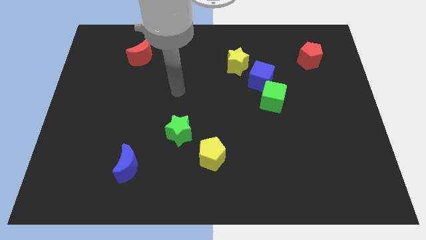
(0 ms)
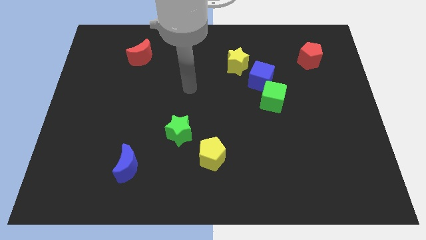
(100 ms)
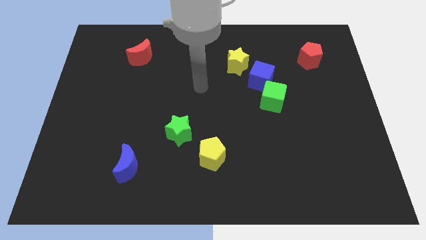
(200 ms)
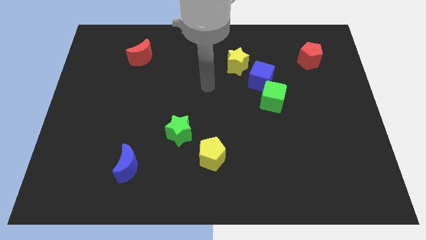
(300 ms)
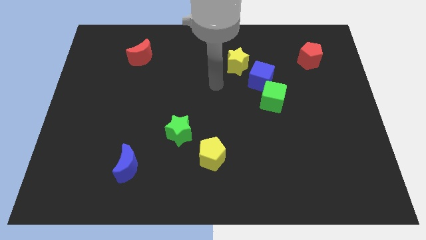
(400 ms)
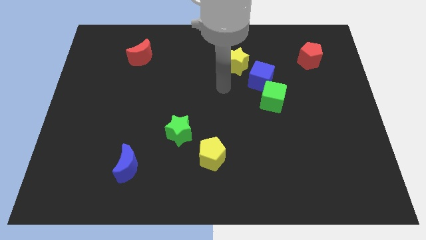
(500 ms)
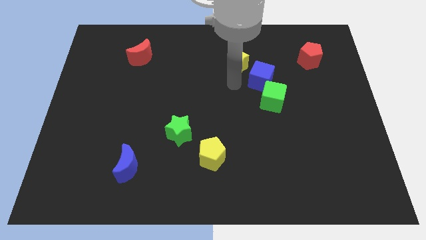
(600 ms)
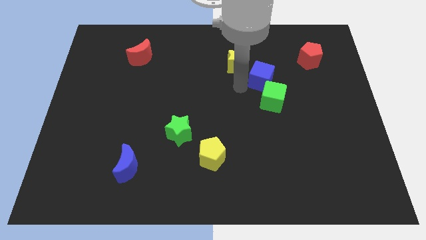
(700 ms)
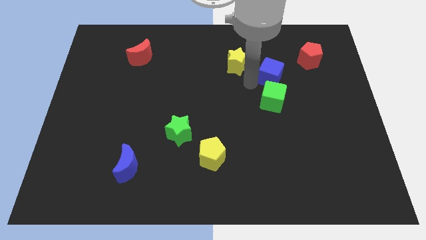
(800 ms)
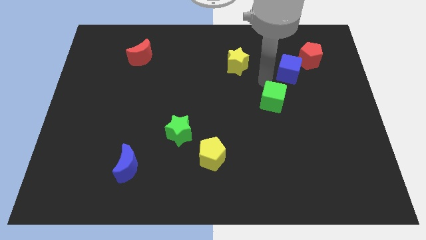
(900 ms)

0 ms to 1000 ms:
move the green cube away from the blue cube

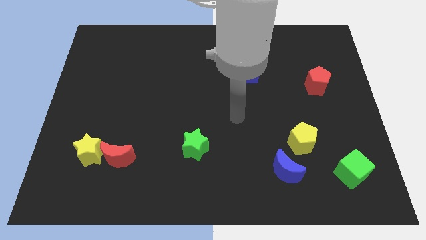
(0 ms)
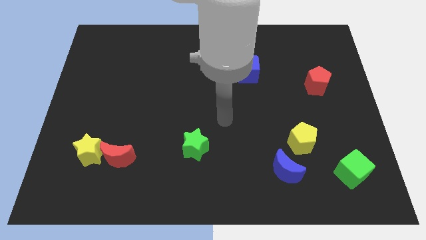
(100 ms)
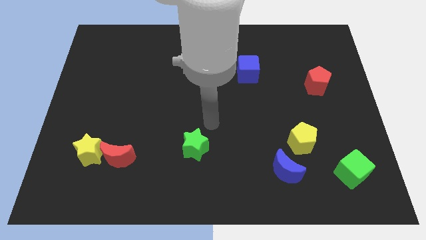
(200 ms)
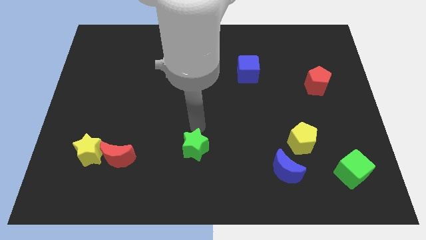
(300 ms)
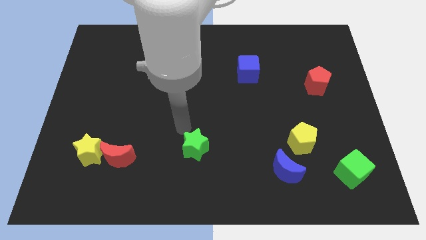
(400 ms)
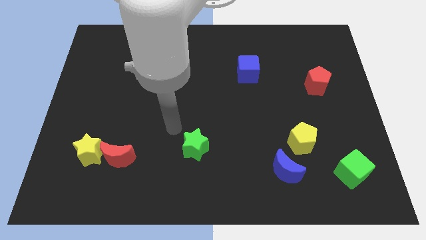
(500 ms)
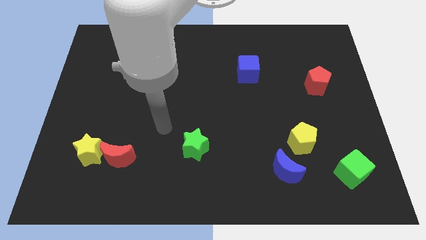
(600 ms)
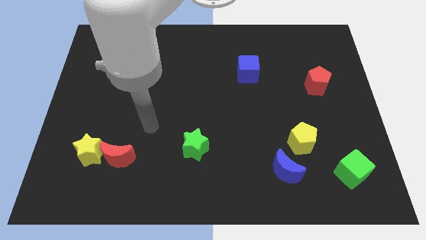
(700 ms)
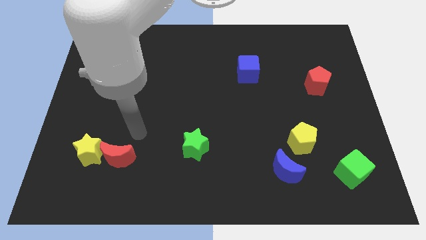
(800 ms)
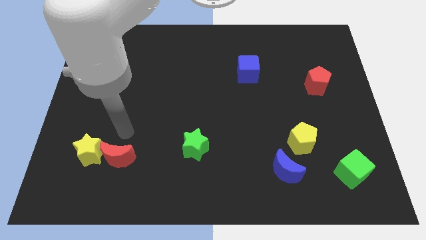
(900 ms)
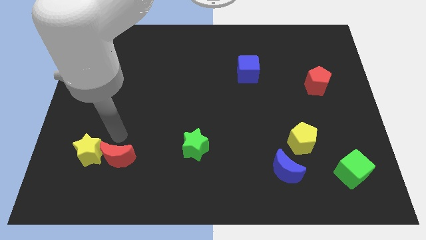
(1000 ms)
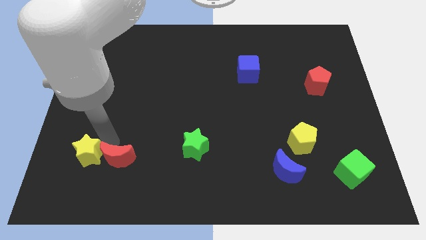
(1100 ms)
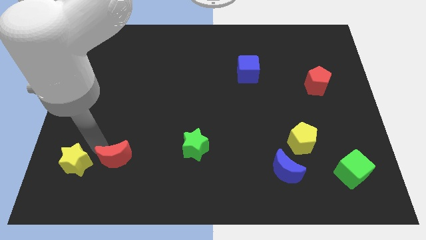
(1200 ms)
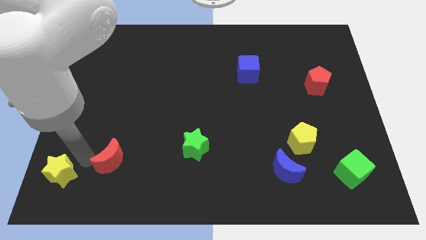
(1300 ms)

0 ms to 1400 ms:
move the red moon away from the yellow star

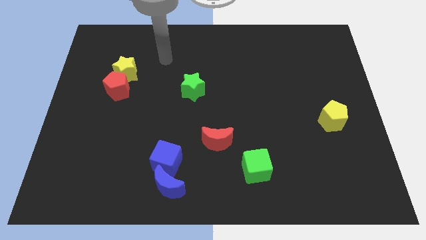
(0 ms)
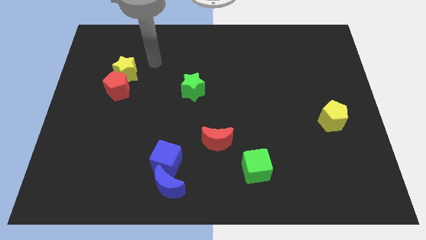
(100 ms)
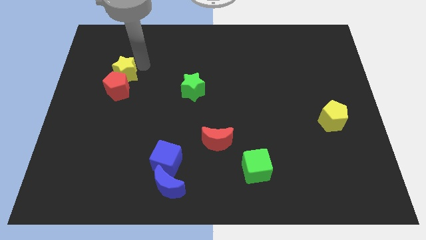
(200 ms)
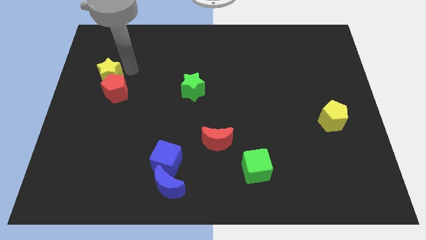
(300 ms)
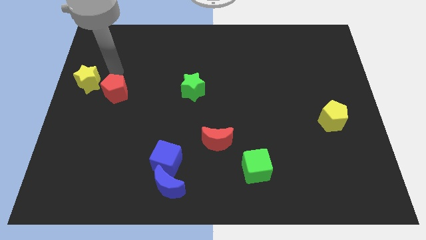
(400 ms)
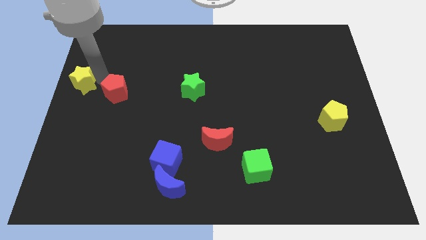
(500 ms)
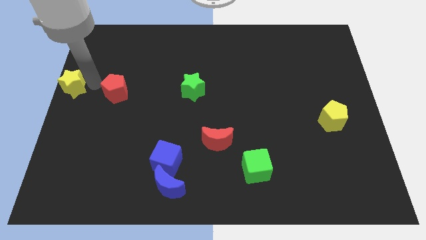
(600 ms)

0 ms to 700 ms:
separate the red pentagon from the yellow star

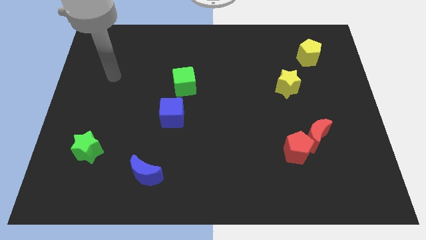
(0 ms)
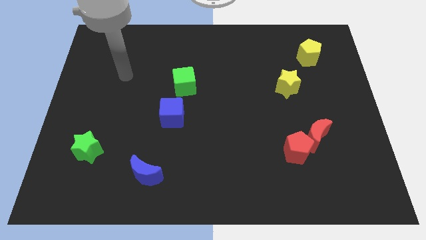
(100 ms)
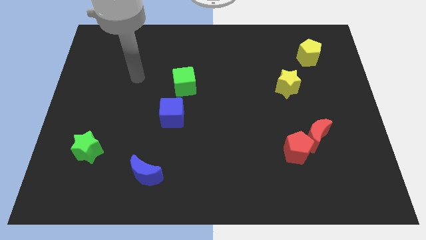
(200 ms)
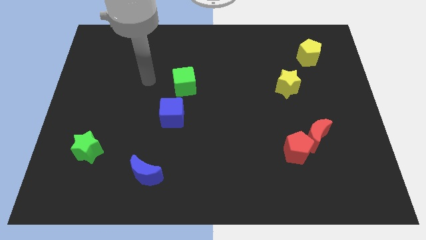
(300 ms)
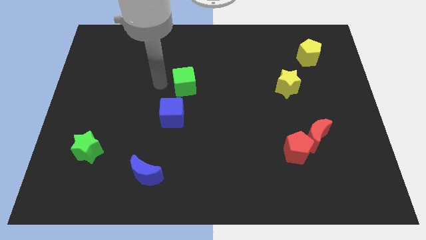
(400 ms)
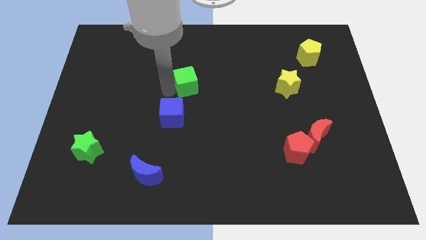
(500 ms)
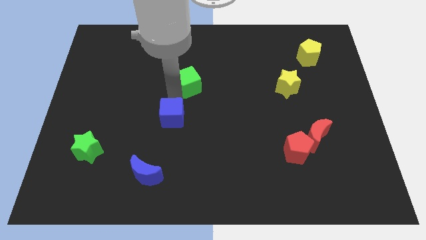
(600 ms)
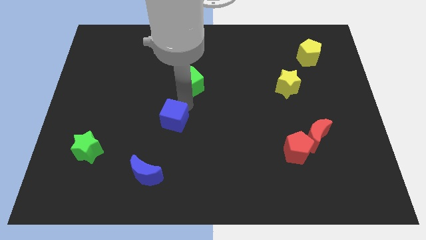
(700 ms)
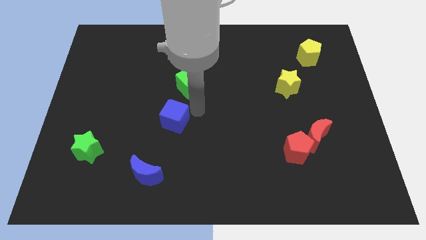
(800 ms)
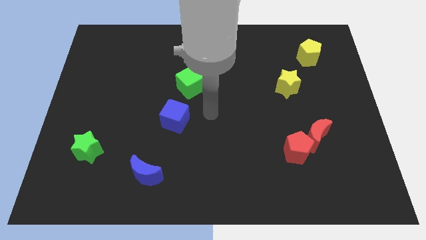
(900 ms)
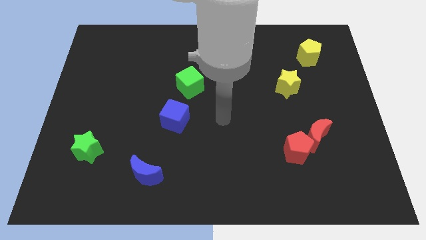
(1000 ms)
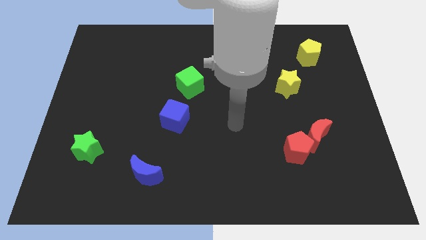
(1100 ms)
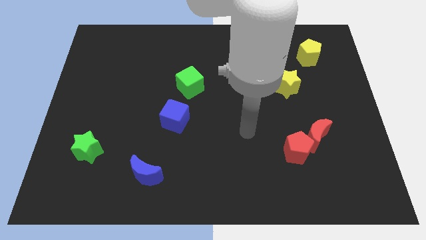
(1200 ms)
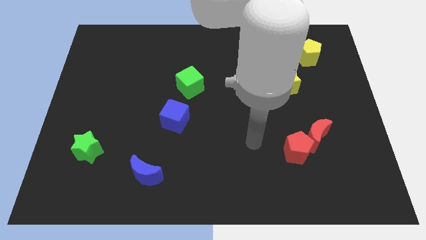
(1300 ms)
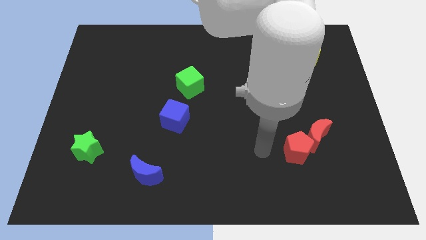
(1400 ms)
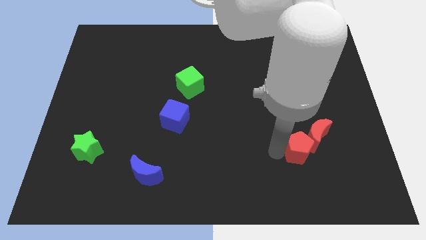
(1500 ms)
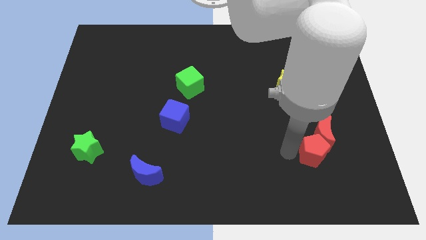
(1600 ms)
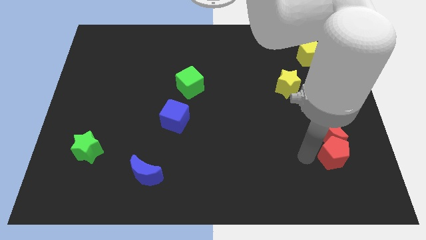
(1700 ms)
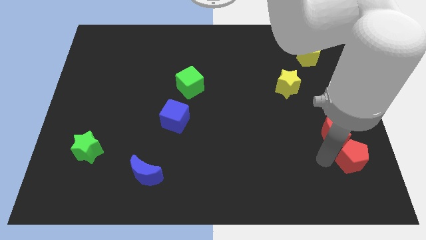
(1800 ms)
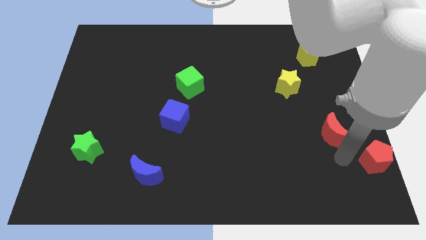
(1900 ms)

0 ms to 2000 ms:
pull the red moon apart from the red pentagon

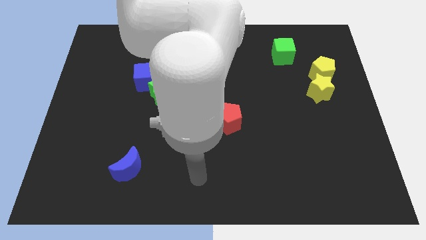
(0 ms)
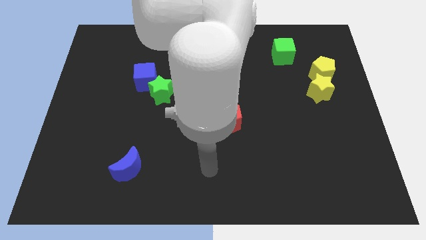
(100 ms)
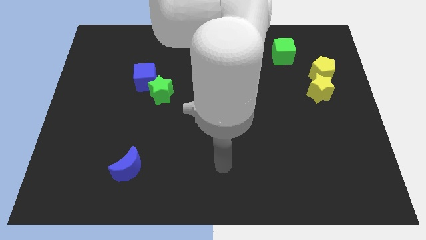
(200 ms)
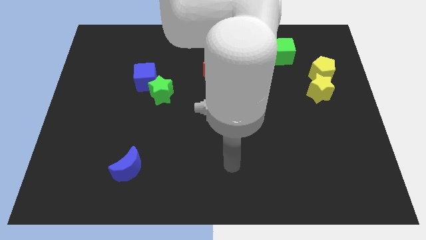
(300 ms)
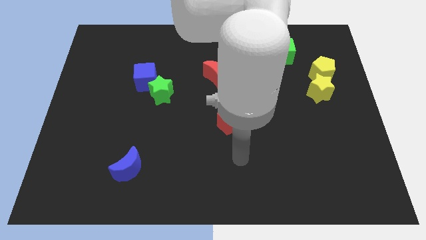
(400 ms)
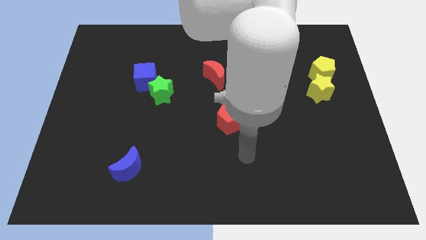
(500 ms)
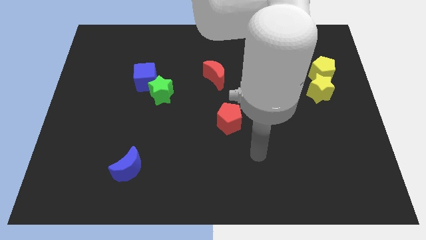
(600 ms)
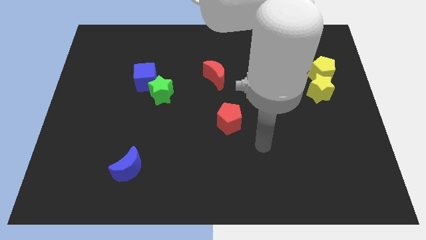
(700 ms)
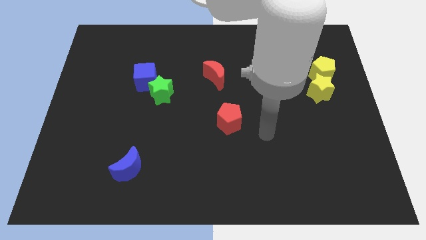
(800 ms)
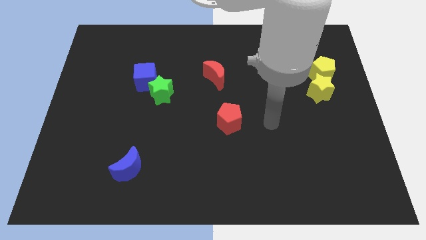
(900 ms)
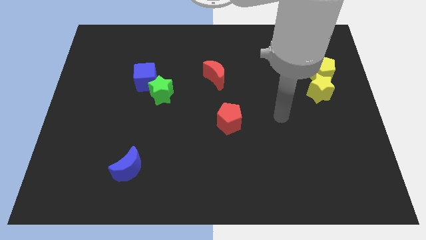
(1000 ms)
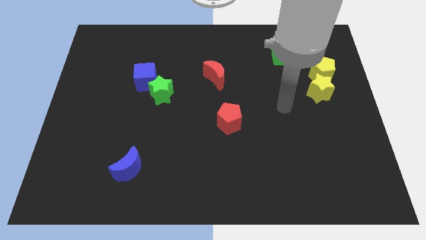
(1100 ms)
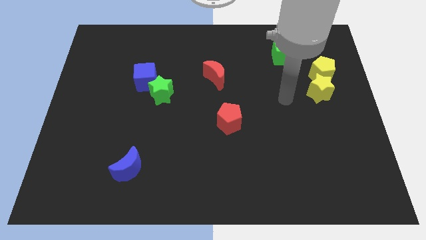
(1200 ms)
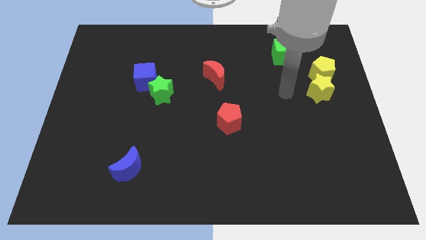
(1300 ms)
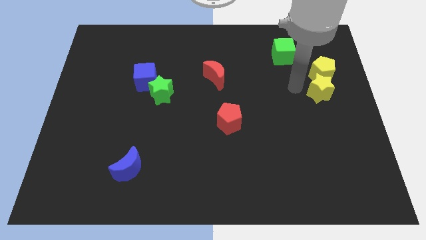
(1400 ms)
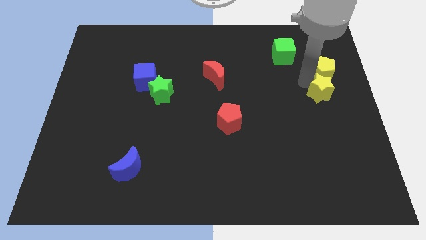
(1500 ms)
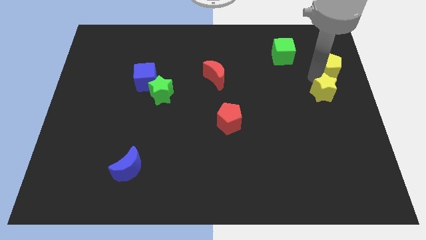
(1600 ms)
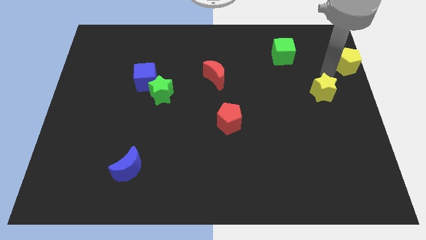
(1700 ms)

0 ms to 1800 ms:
pull the yellow star apart from the yellow pentagon

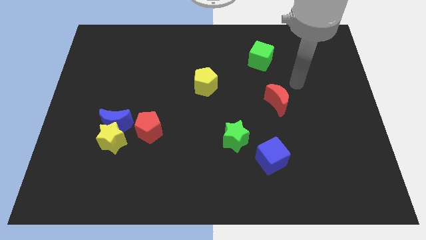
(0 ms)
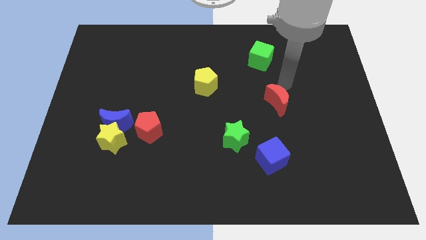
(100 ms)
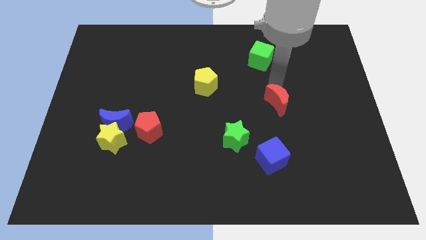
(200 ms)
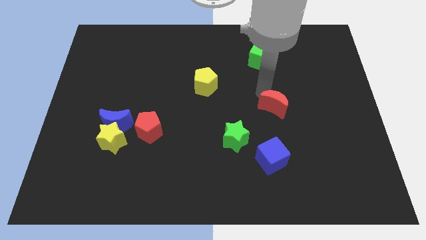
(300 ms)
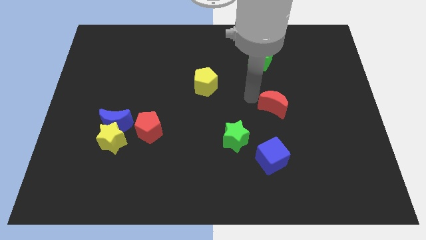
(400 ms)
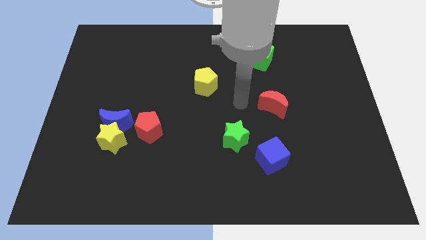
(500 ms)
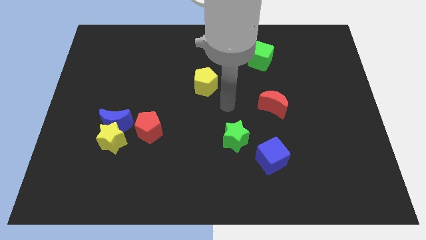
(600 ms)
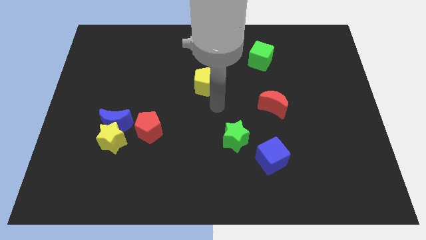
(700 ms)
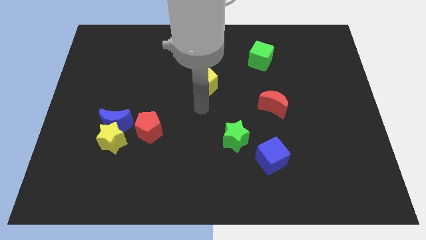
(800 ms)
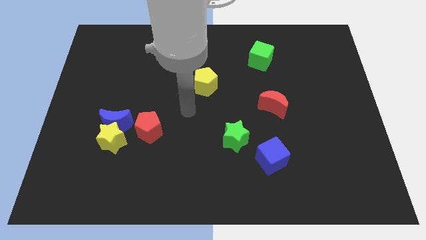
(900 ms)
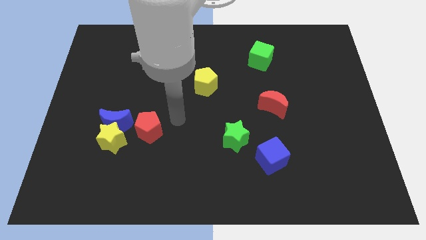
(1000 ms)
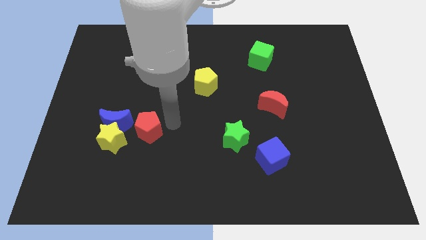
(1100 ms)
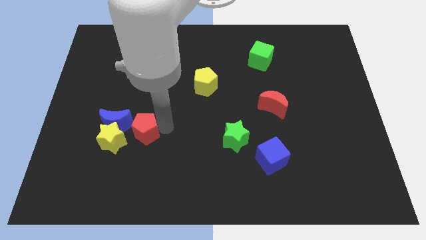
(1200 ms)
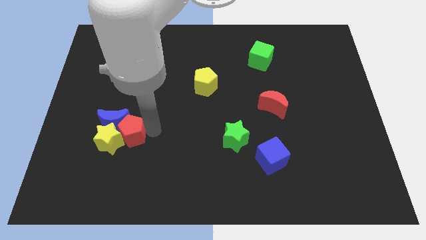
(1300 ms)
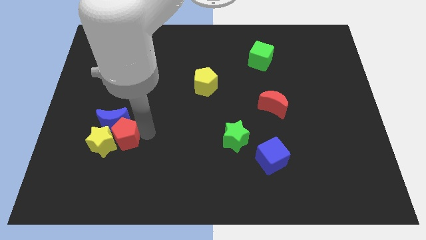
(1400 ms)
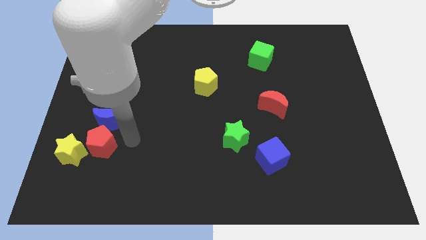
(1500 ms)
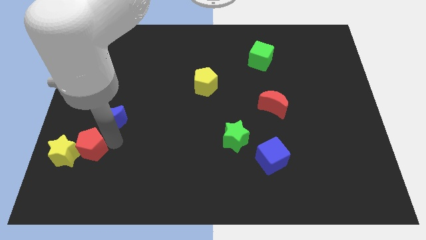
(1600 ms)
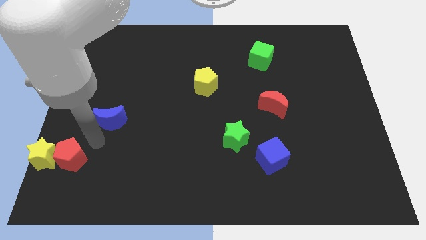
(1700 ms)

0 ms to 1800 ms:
move the blue moon away from the yellow star and red pentagon

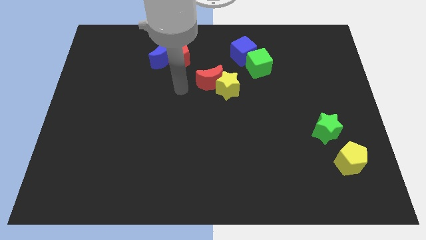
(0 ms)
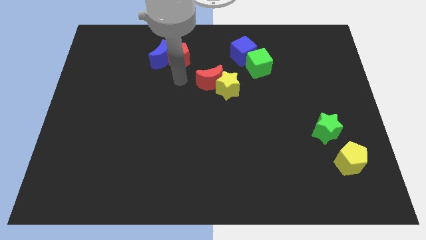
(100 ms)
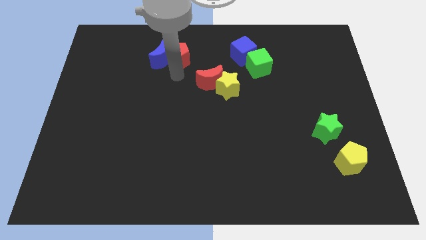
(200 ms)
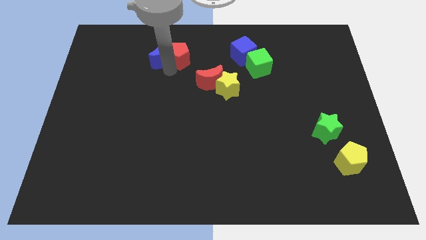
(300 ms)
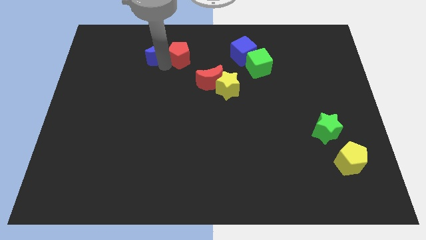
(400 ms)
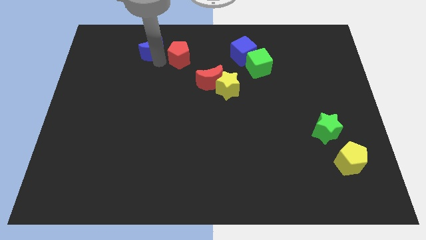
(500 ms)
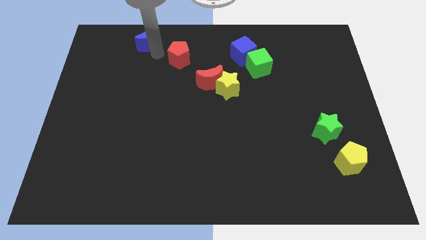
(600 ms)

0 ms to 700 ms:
move the red pentagon away from the blue moon
